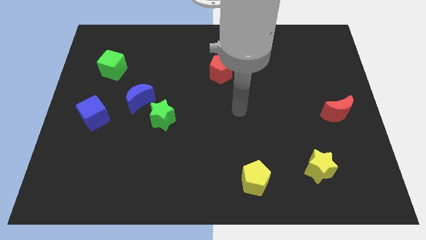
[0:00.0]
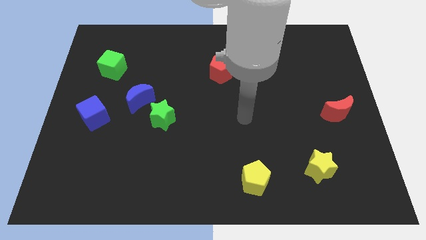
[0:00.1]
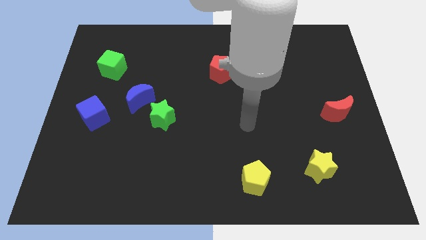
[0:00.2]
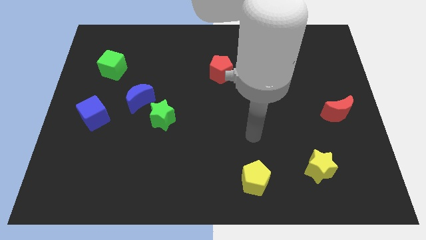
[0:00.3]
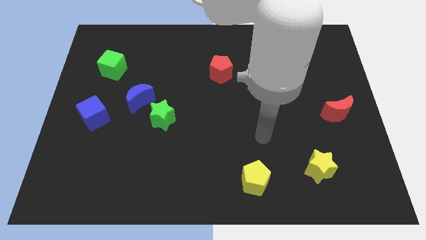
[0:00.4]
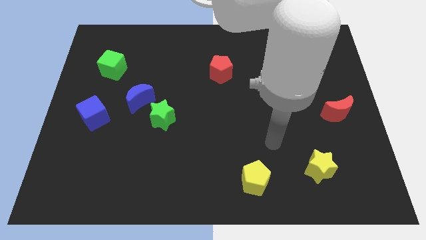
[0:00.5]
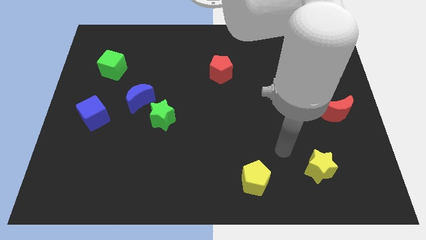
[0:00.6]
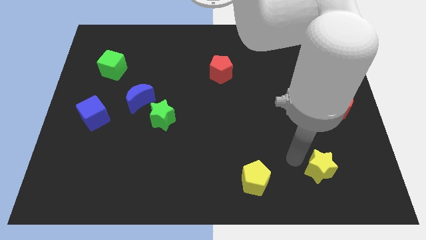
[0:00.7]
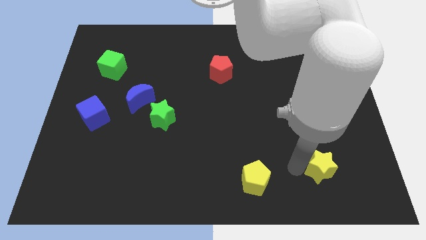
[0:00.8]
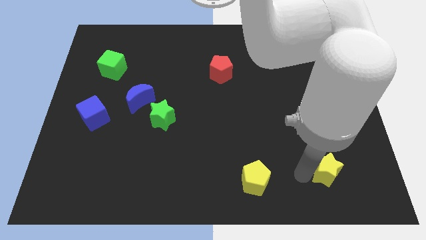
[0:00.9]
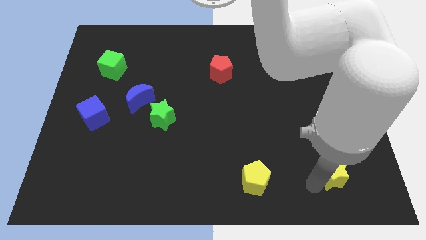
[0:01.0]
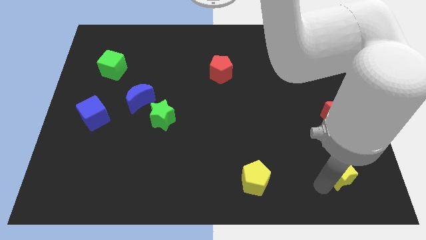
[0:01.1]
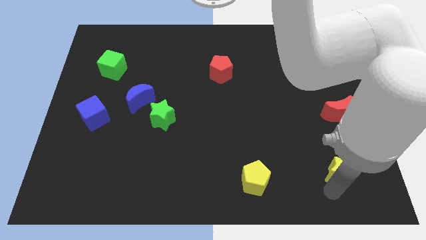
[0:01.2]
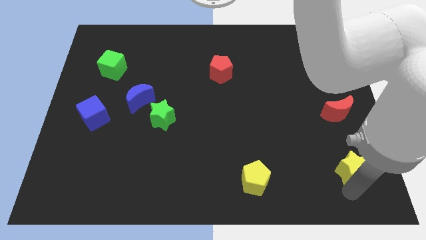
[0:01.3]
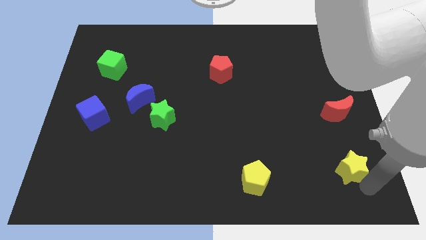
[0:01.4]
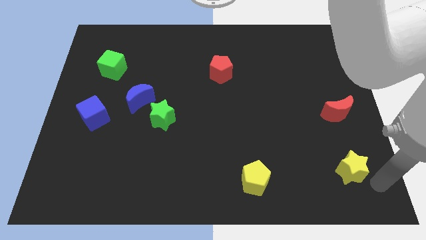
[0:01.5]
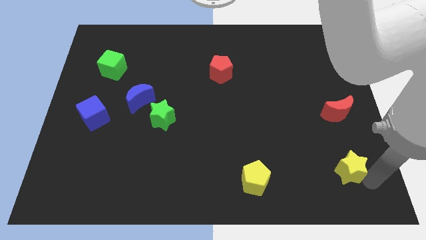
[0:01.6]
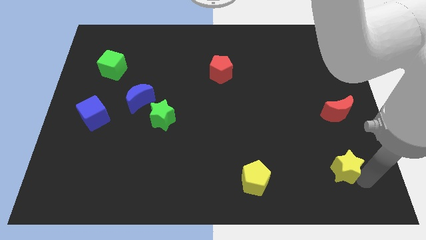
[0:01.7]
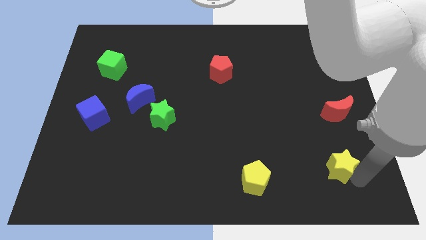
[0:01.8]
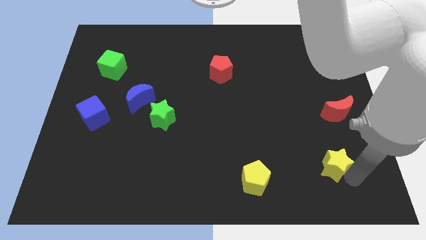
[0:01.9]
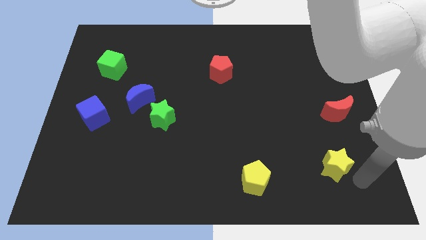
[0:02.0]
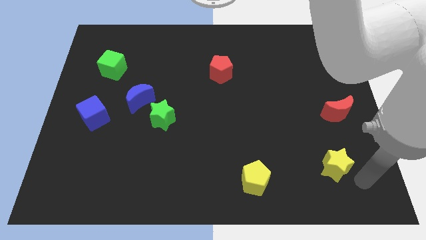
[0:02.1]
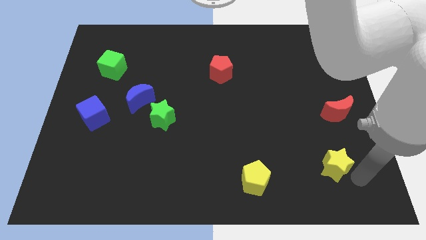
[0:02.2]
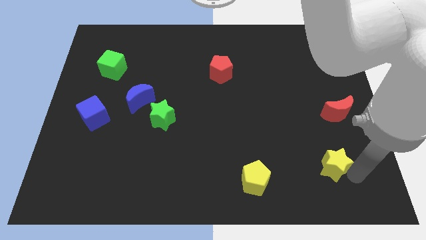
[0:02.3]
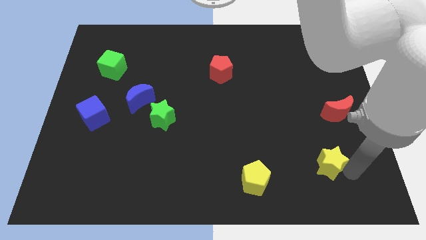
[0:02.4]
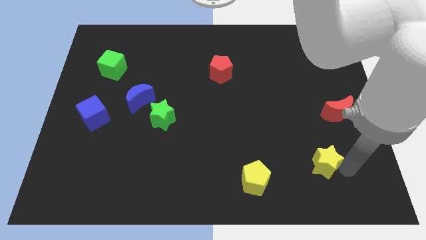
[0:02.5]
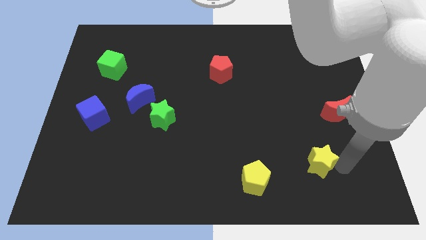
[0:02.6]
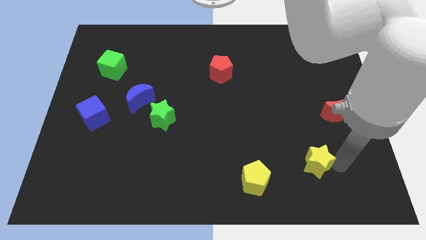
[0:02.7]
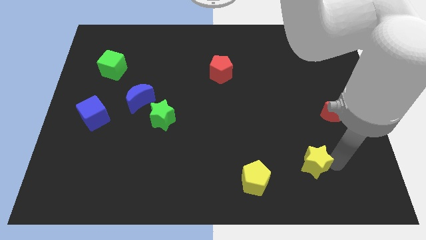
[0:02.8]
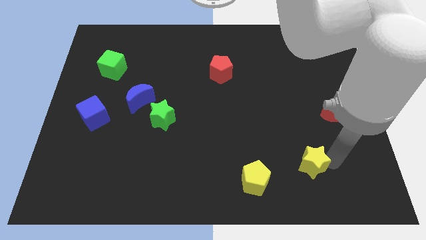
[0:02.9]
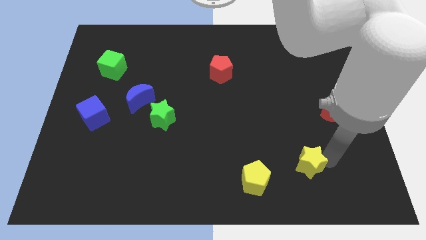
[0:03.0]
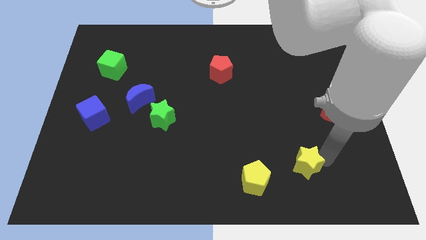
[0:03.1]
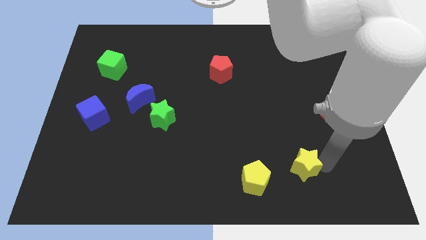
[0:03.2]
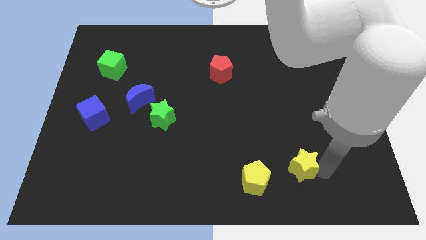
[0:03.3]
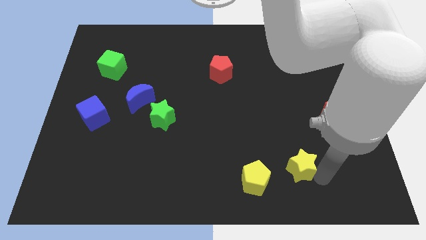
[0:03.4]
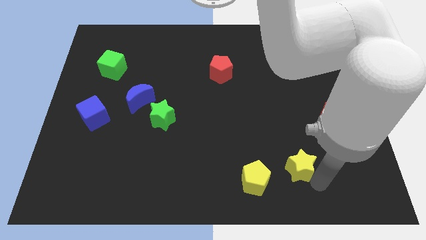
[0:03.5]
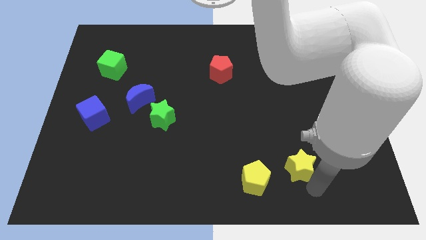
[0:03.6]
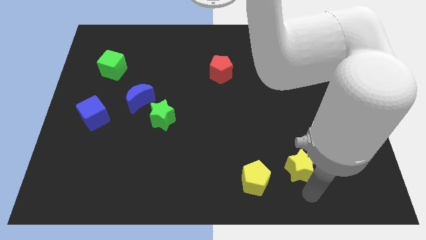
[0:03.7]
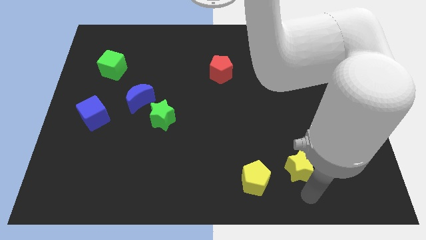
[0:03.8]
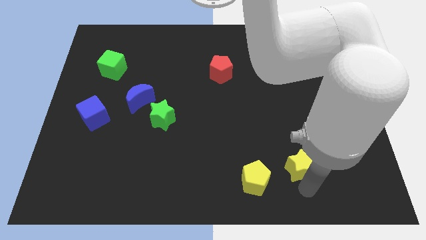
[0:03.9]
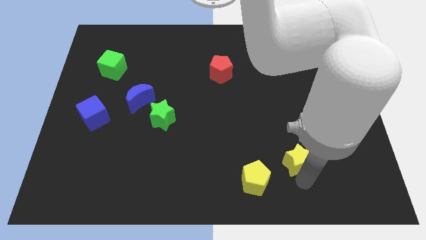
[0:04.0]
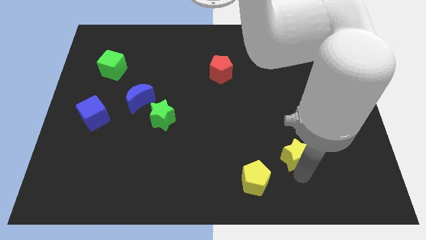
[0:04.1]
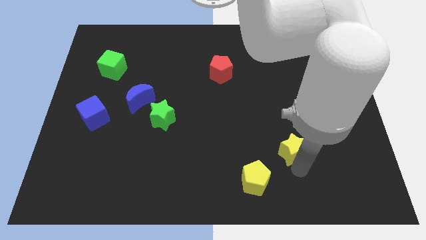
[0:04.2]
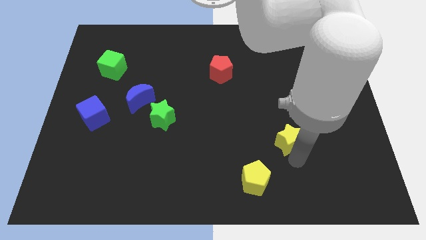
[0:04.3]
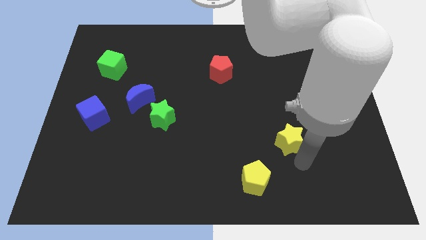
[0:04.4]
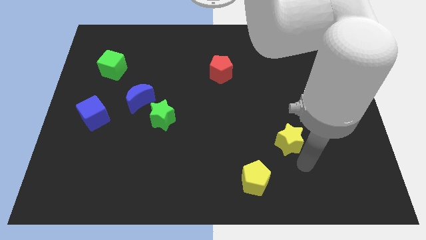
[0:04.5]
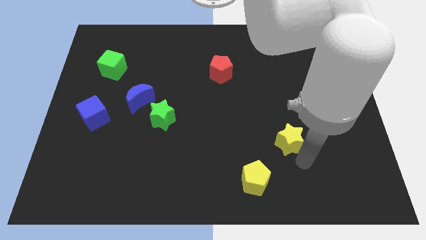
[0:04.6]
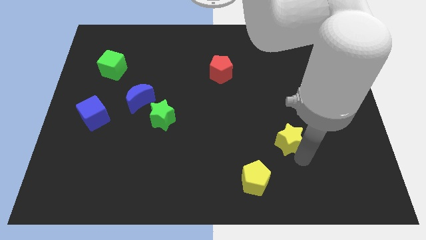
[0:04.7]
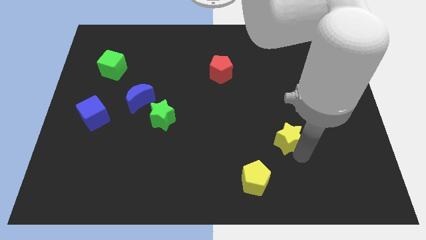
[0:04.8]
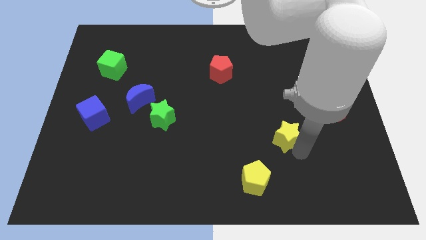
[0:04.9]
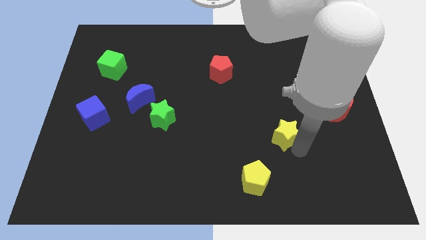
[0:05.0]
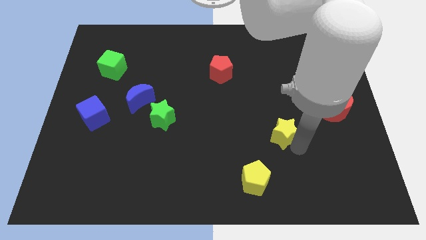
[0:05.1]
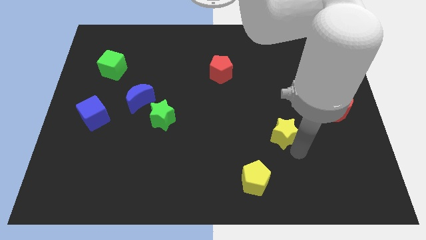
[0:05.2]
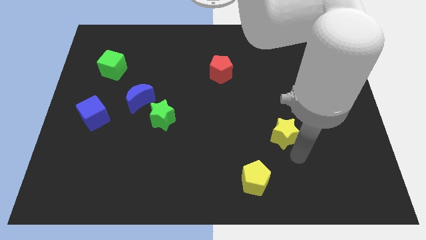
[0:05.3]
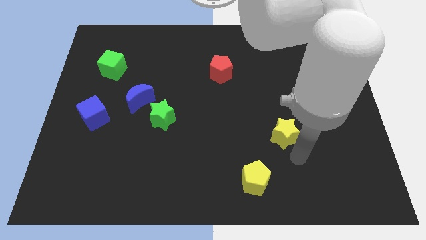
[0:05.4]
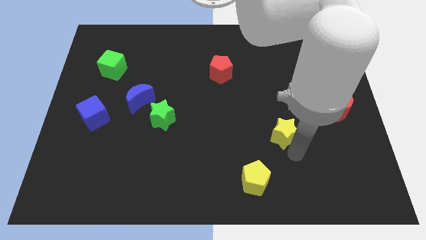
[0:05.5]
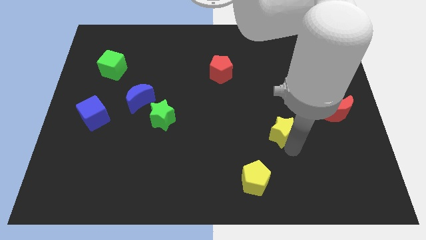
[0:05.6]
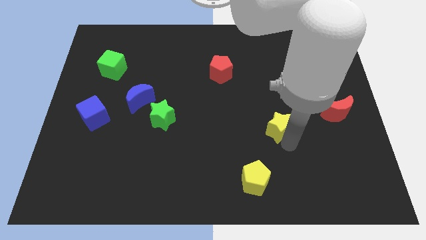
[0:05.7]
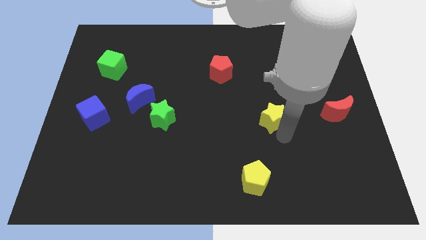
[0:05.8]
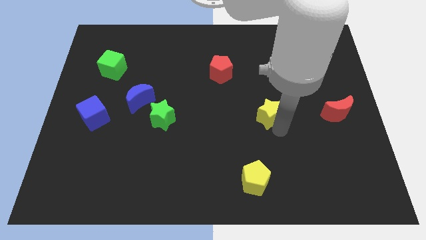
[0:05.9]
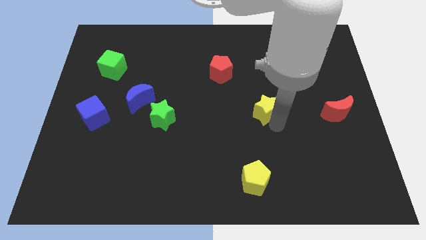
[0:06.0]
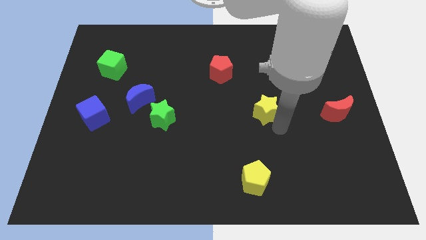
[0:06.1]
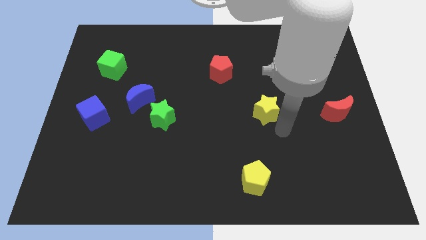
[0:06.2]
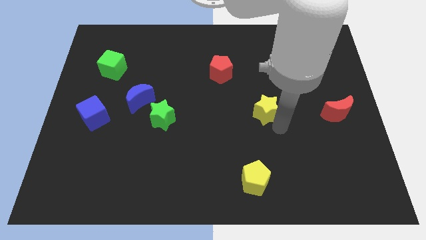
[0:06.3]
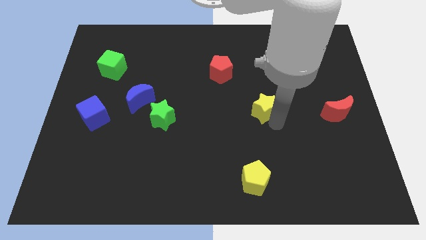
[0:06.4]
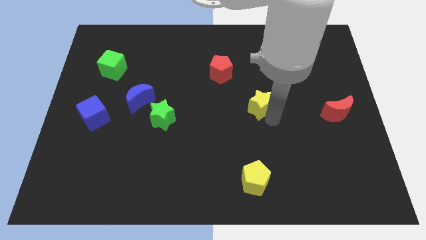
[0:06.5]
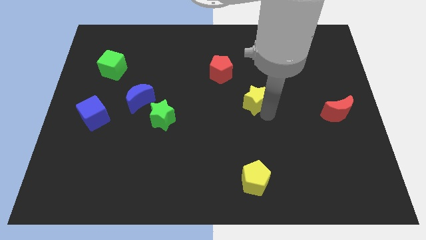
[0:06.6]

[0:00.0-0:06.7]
push the yellow star diagonally down and to the right of the red pentagon
